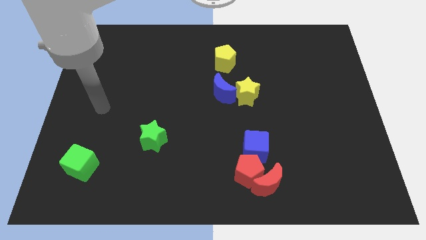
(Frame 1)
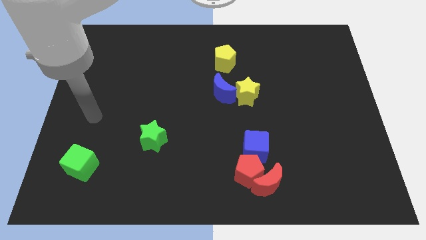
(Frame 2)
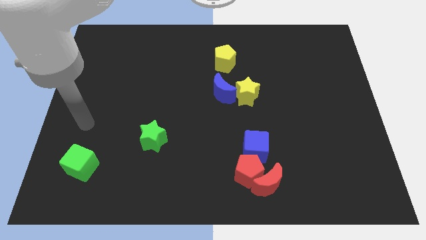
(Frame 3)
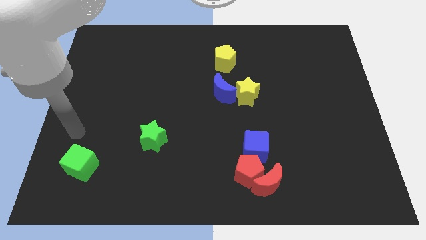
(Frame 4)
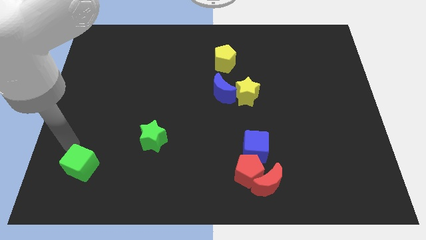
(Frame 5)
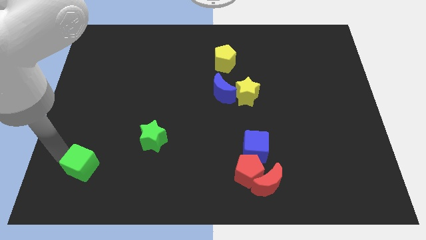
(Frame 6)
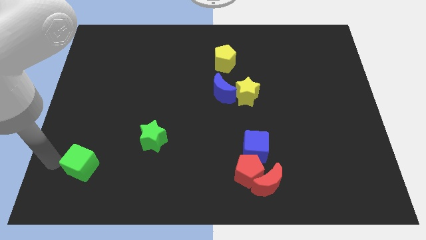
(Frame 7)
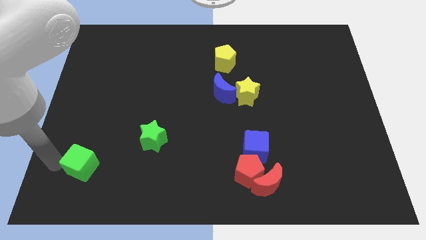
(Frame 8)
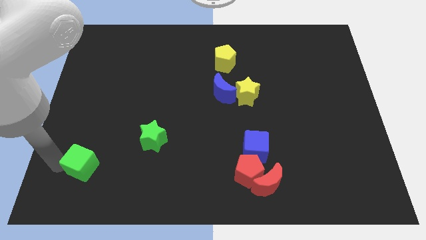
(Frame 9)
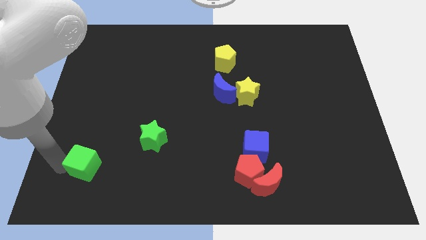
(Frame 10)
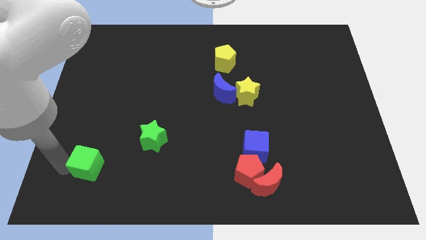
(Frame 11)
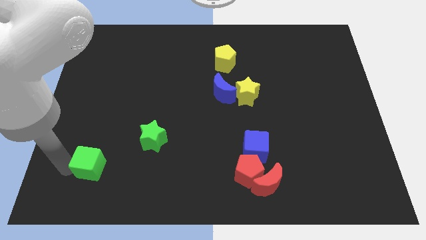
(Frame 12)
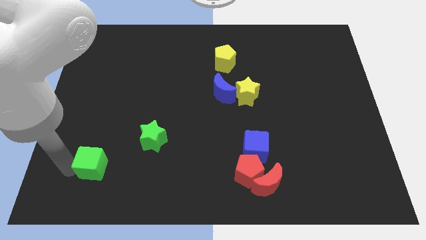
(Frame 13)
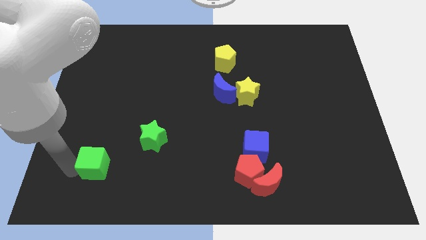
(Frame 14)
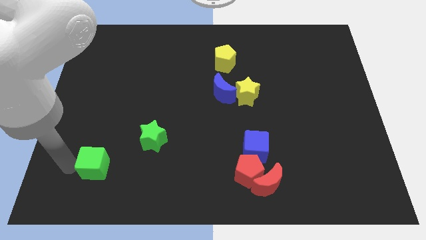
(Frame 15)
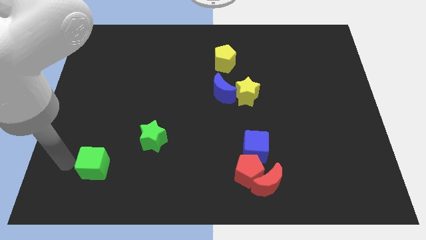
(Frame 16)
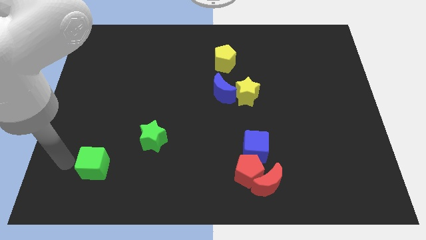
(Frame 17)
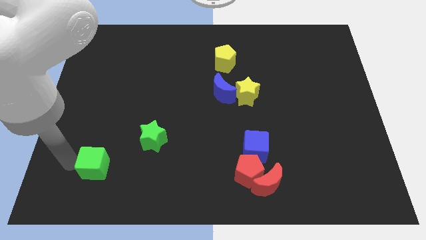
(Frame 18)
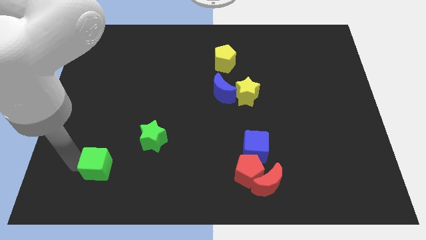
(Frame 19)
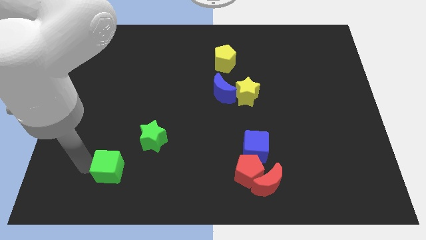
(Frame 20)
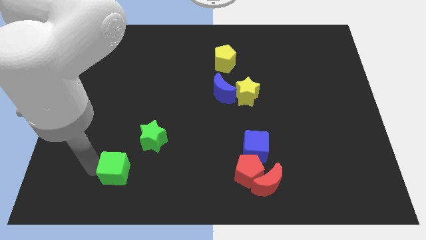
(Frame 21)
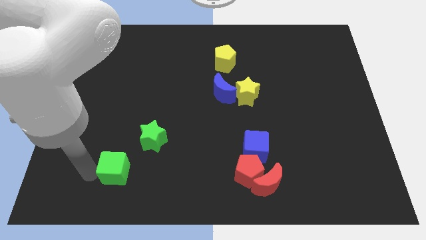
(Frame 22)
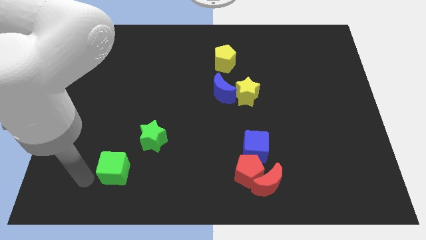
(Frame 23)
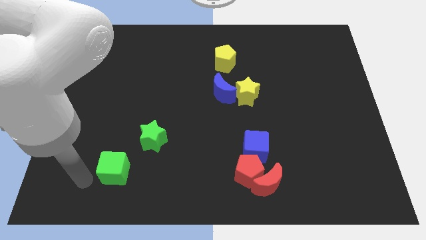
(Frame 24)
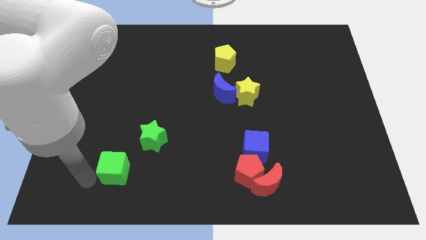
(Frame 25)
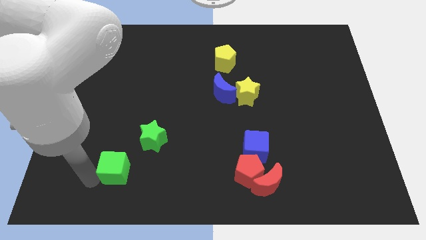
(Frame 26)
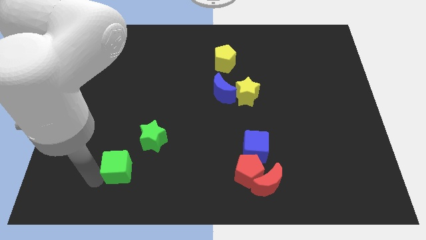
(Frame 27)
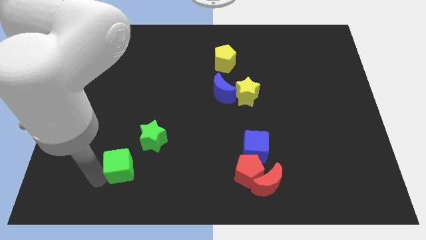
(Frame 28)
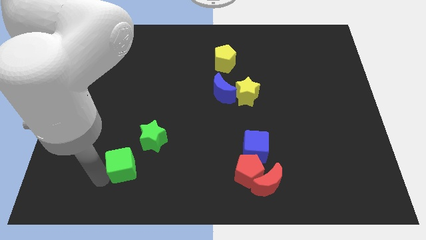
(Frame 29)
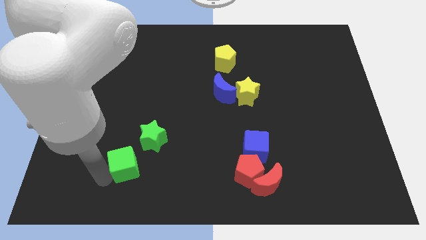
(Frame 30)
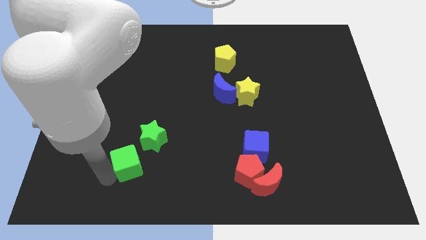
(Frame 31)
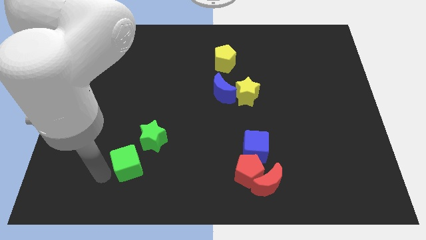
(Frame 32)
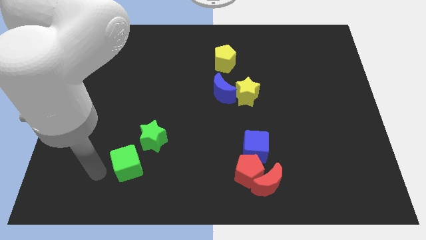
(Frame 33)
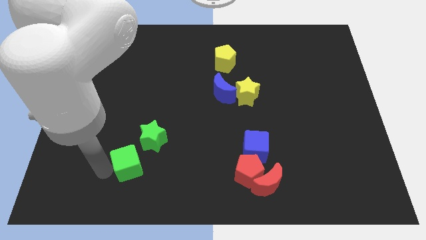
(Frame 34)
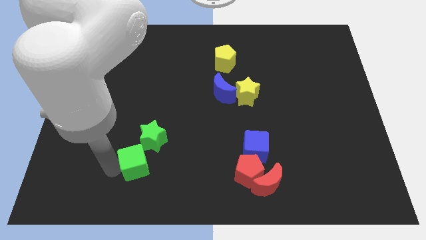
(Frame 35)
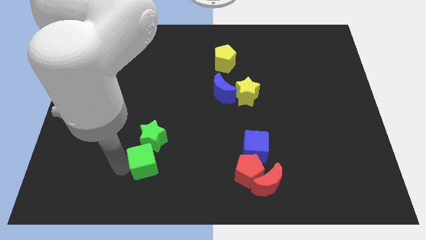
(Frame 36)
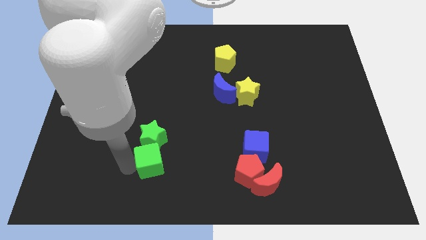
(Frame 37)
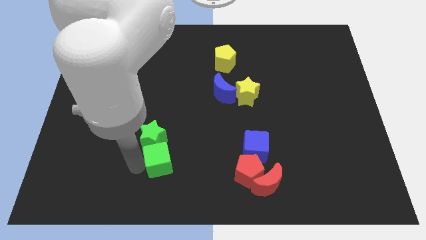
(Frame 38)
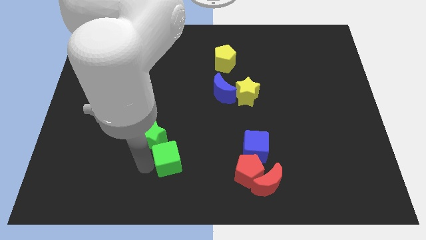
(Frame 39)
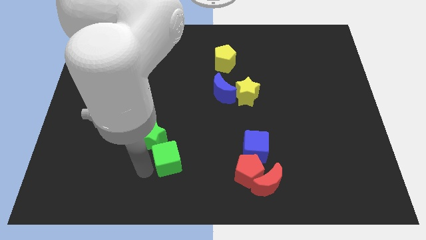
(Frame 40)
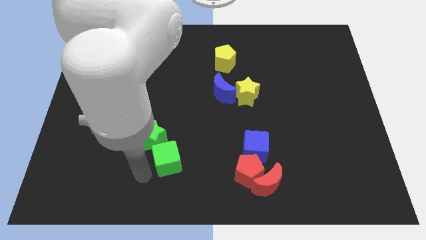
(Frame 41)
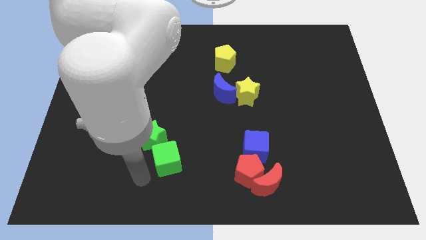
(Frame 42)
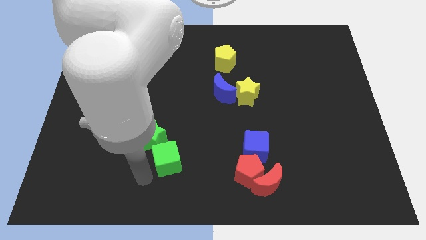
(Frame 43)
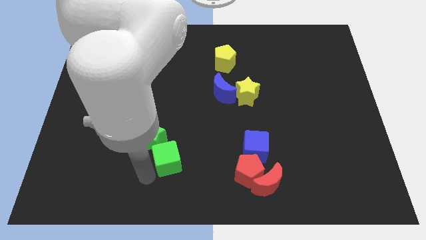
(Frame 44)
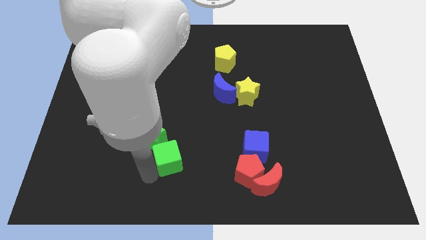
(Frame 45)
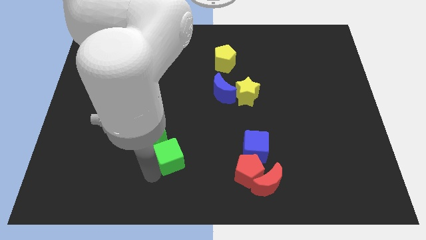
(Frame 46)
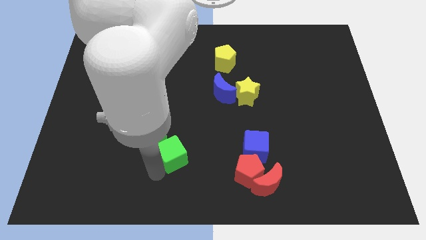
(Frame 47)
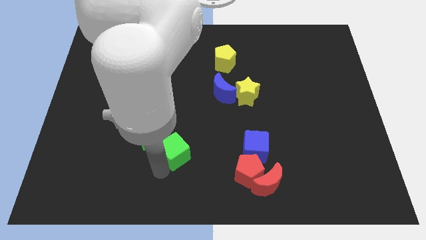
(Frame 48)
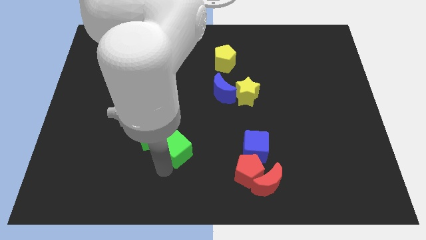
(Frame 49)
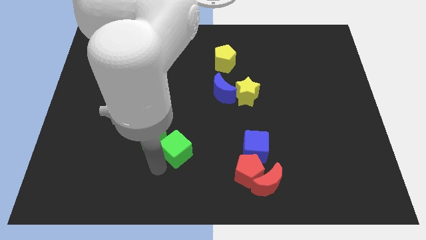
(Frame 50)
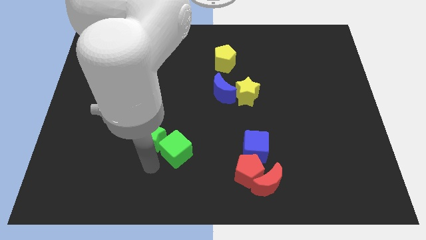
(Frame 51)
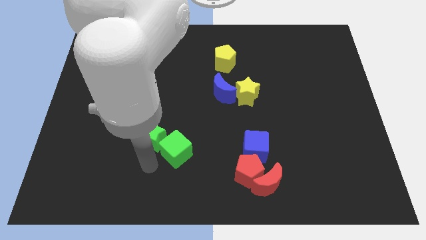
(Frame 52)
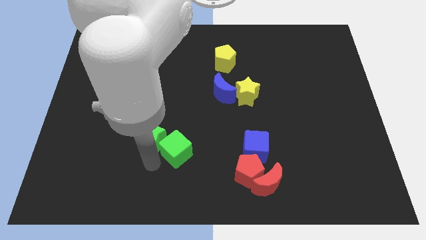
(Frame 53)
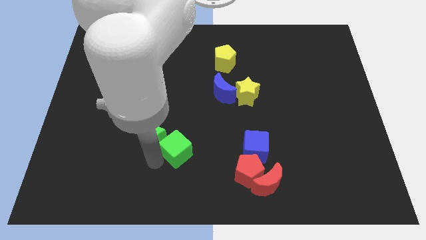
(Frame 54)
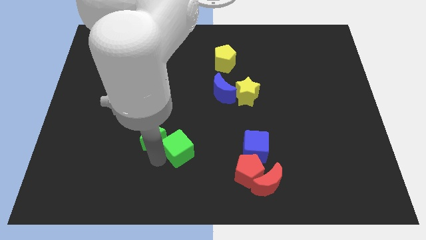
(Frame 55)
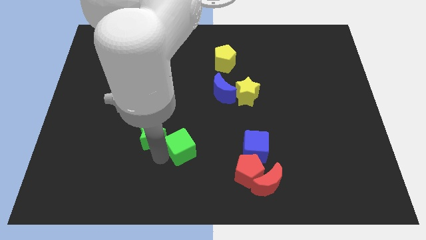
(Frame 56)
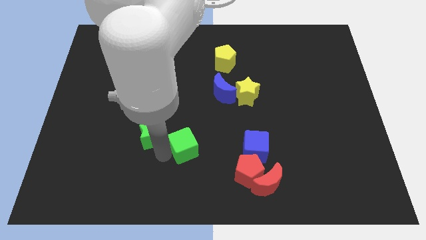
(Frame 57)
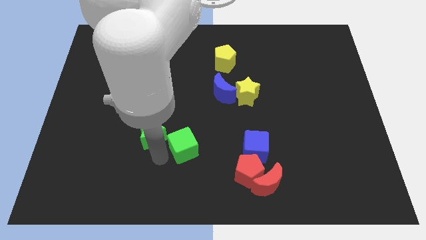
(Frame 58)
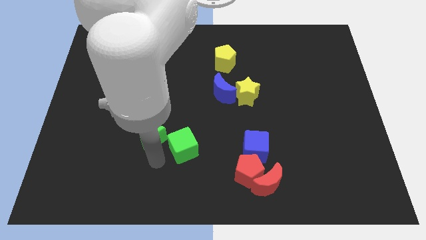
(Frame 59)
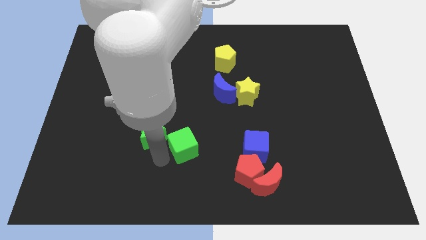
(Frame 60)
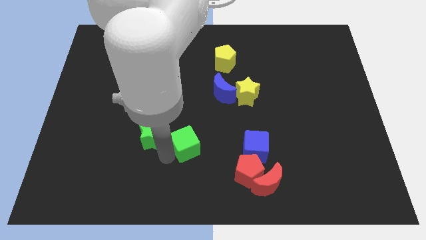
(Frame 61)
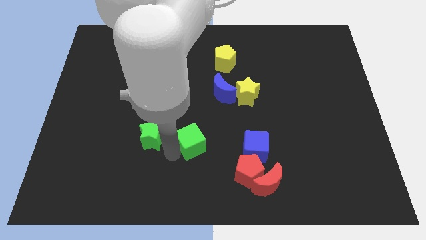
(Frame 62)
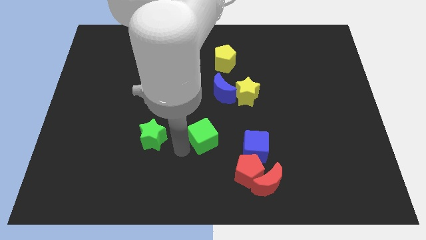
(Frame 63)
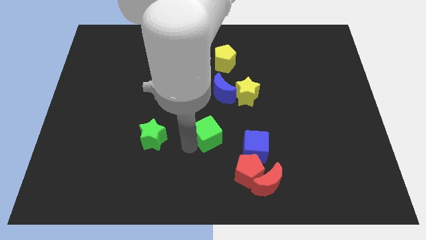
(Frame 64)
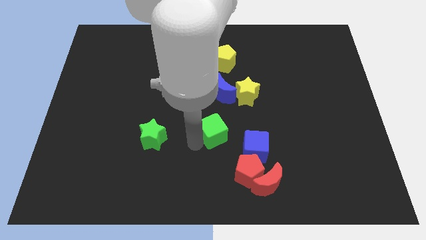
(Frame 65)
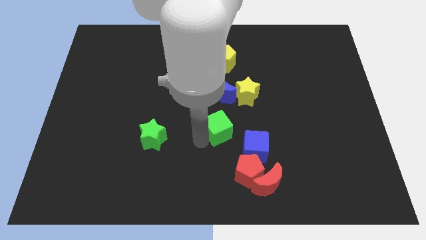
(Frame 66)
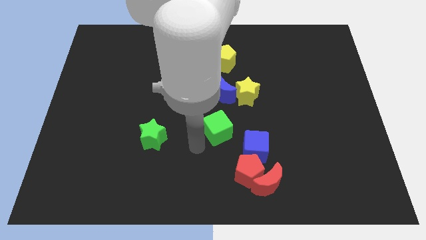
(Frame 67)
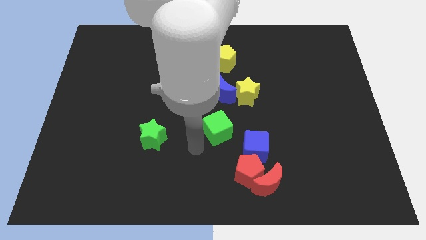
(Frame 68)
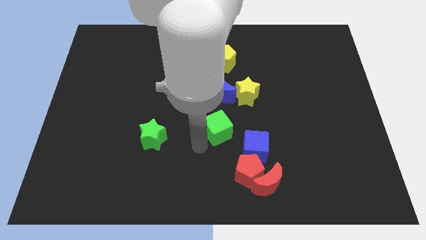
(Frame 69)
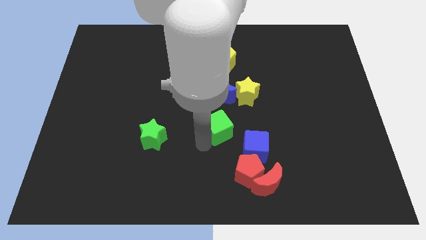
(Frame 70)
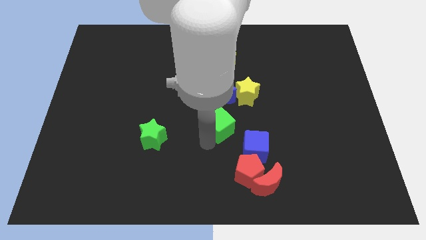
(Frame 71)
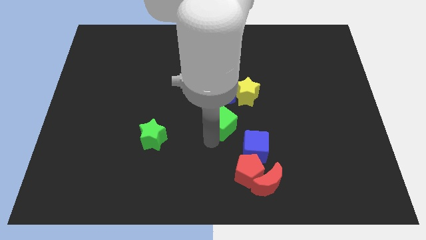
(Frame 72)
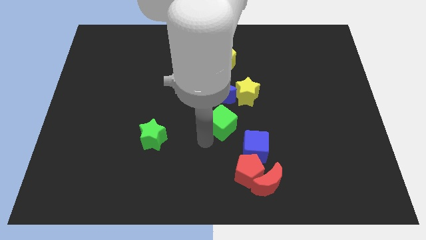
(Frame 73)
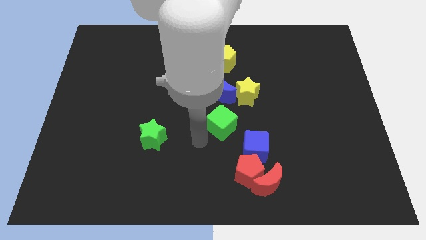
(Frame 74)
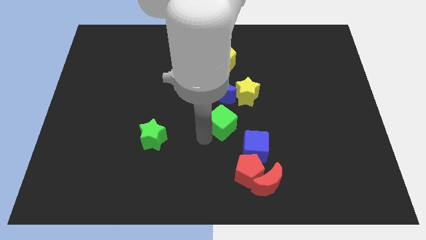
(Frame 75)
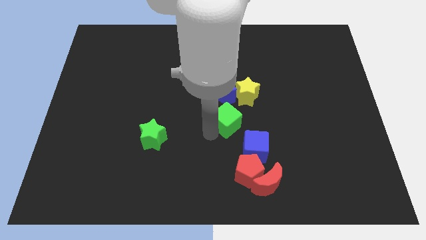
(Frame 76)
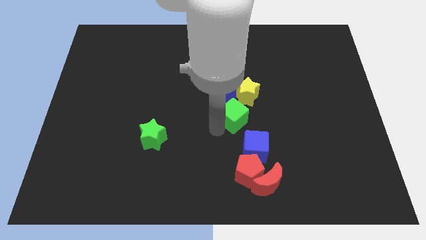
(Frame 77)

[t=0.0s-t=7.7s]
slide the green cube diagonally down and to the right of the blue moon
